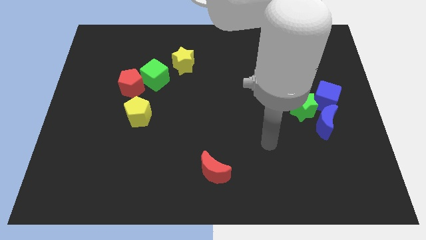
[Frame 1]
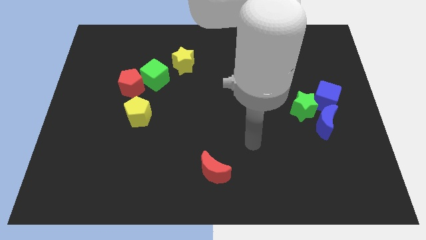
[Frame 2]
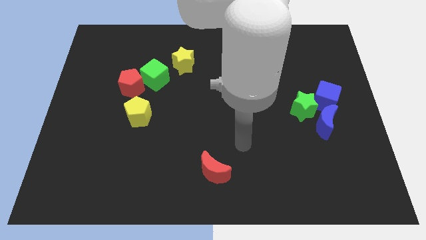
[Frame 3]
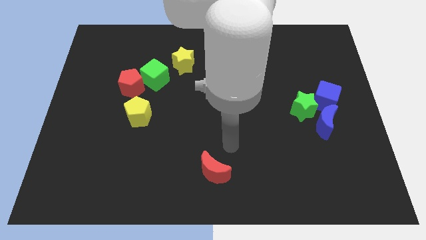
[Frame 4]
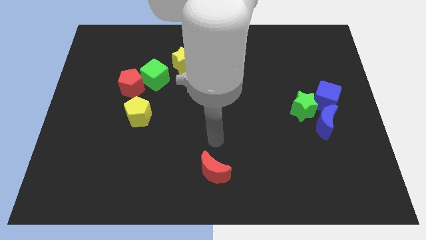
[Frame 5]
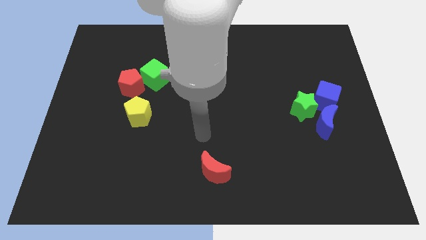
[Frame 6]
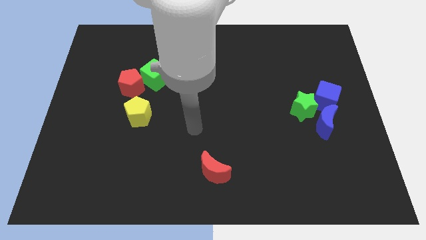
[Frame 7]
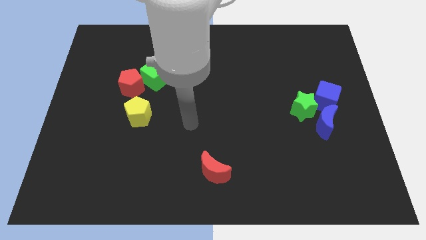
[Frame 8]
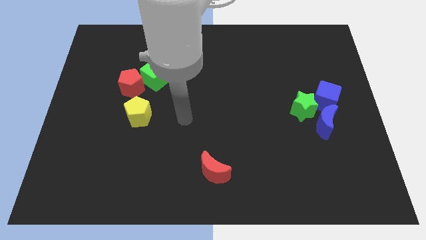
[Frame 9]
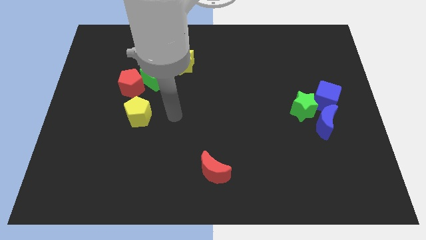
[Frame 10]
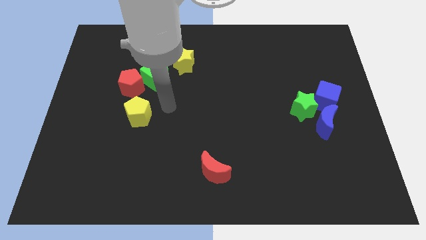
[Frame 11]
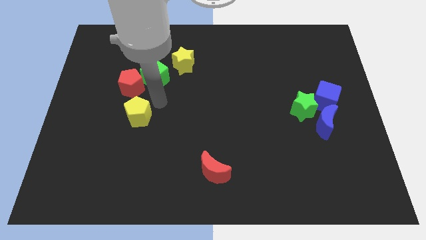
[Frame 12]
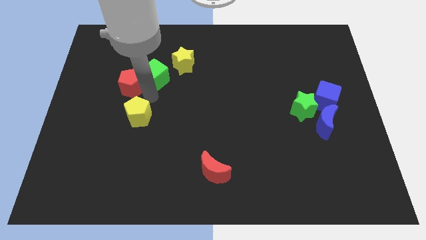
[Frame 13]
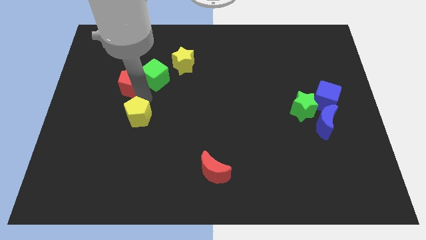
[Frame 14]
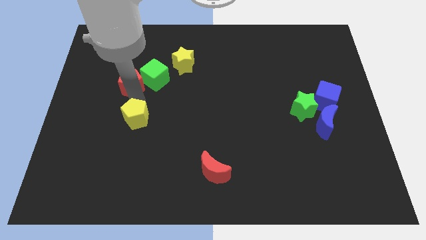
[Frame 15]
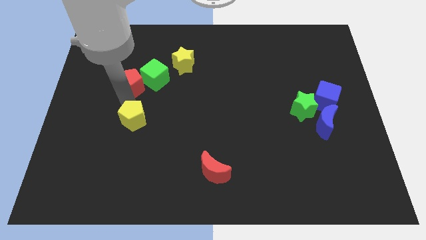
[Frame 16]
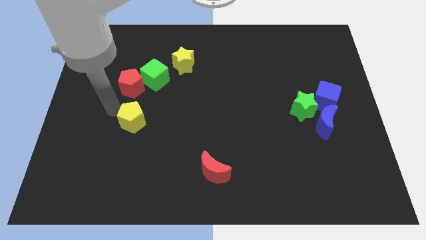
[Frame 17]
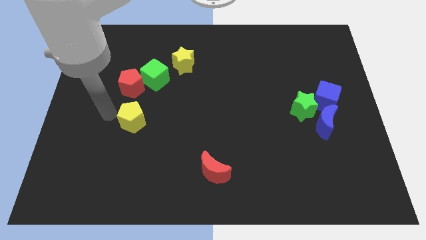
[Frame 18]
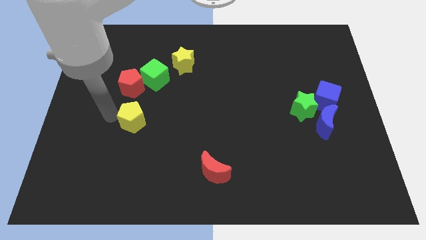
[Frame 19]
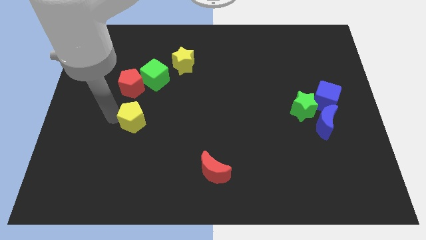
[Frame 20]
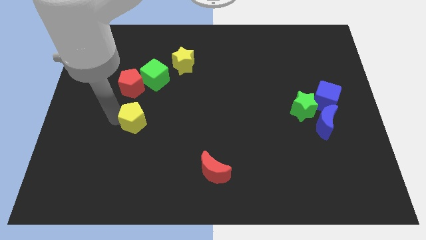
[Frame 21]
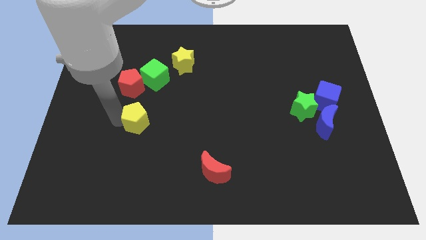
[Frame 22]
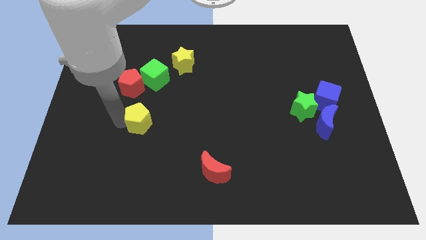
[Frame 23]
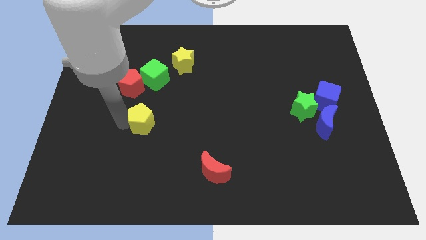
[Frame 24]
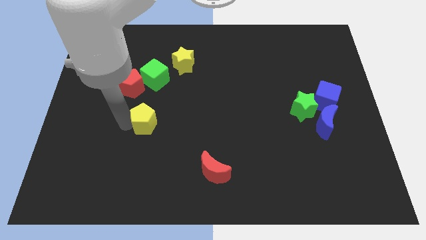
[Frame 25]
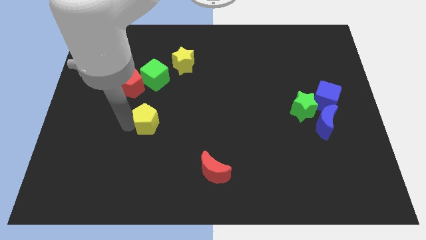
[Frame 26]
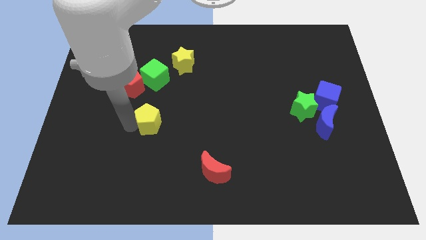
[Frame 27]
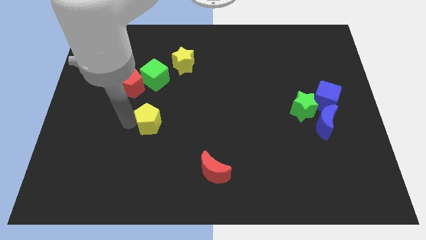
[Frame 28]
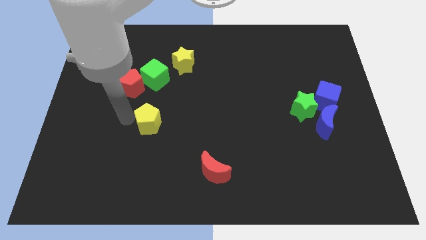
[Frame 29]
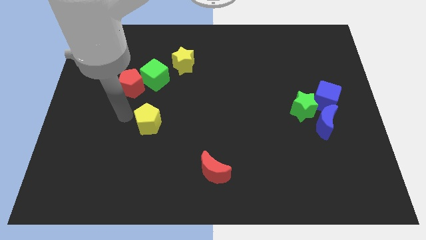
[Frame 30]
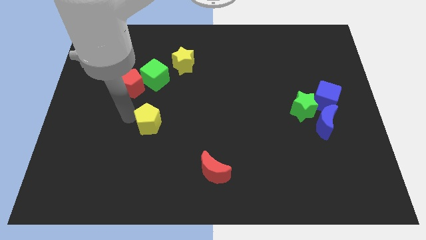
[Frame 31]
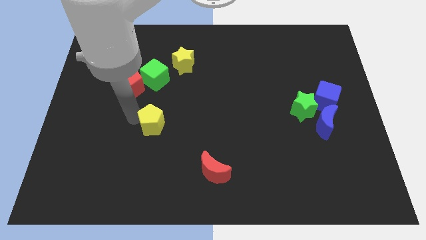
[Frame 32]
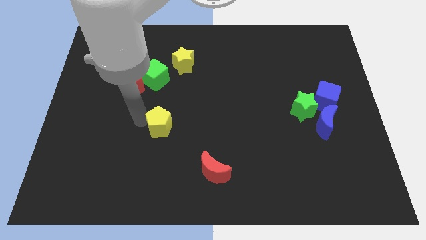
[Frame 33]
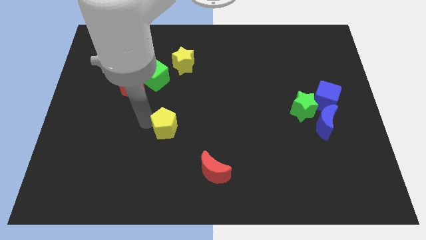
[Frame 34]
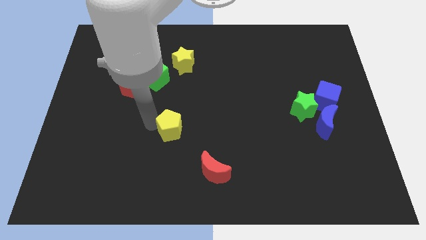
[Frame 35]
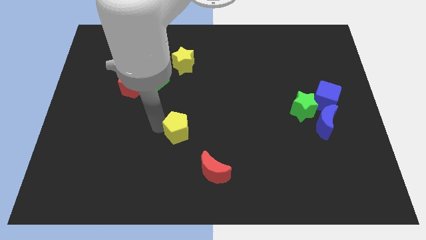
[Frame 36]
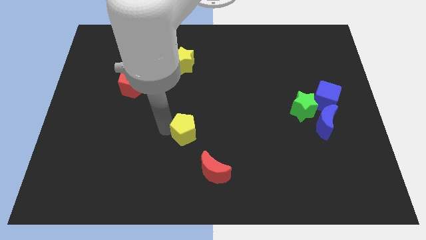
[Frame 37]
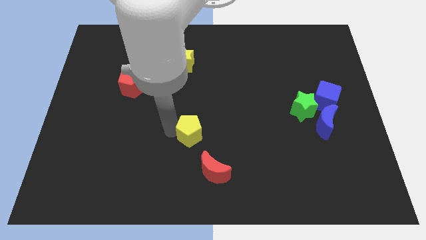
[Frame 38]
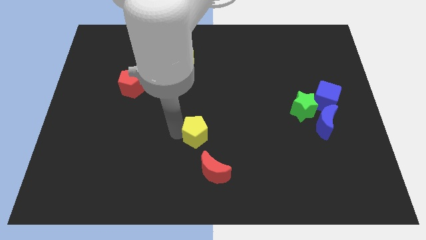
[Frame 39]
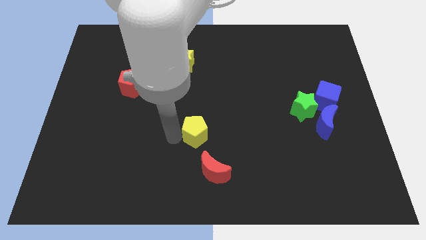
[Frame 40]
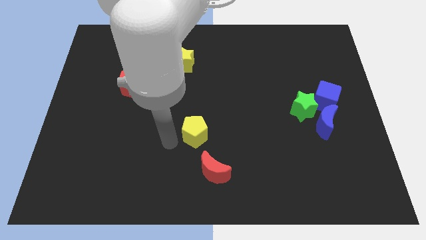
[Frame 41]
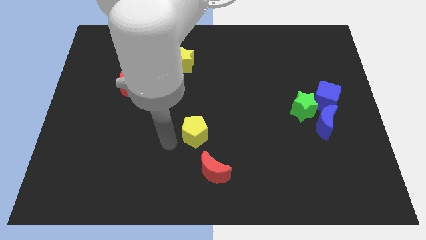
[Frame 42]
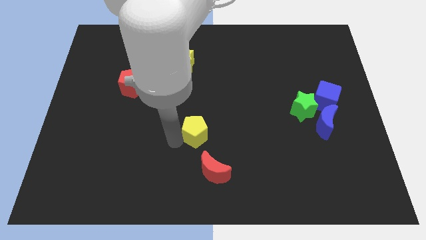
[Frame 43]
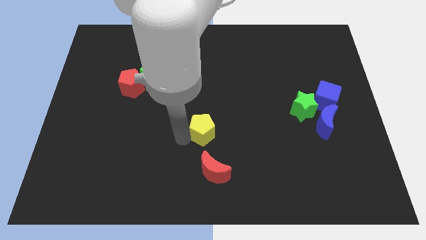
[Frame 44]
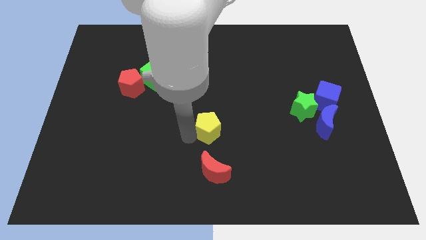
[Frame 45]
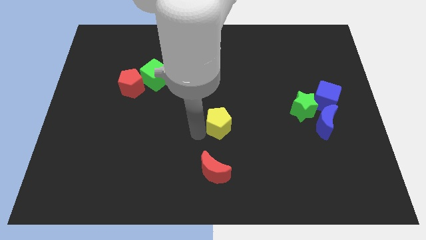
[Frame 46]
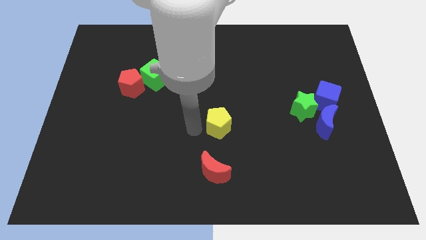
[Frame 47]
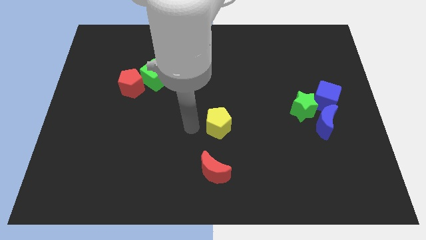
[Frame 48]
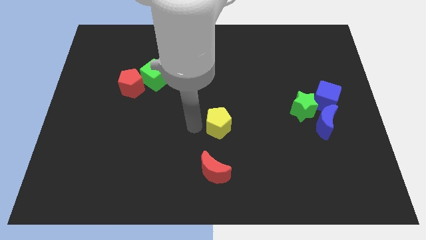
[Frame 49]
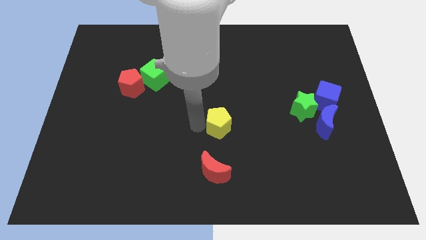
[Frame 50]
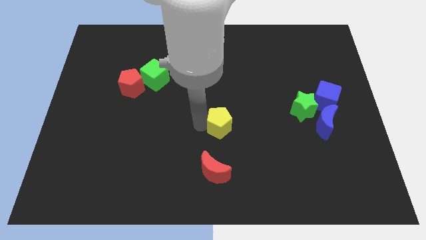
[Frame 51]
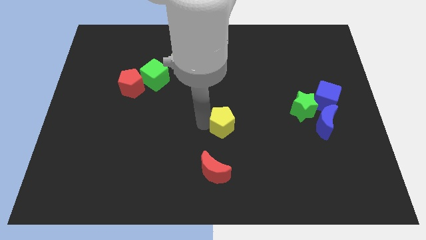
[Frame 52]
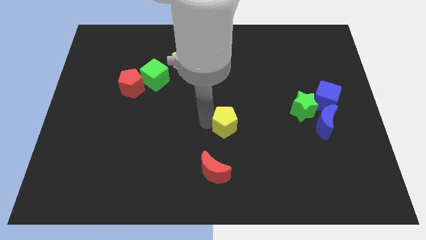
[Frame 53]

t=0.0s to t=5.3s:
move the yellow pentagon to the right

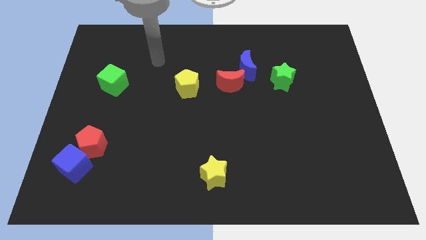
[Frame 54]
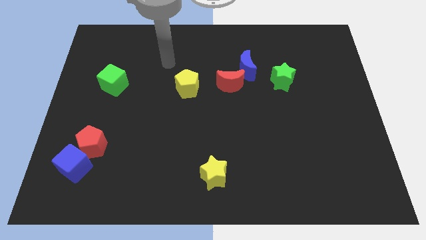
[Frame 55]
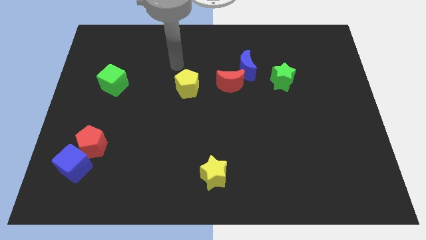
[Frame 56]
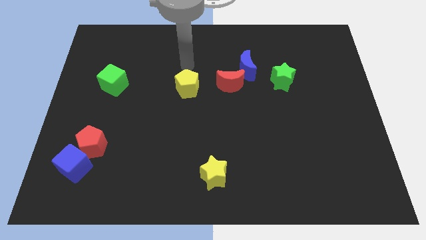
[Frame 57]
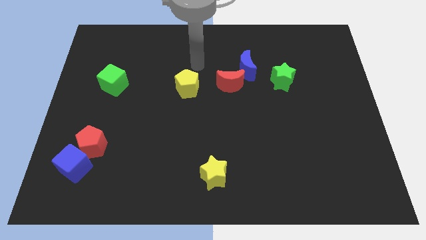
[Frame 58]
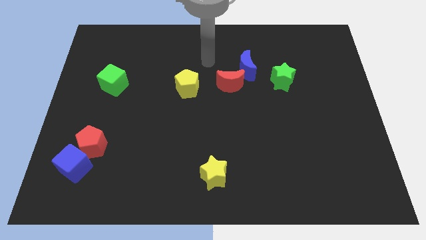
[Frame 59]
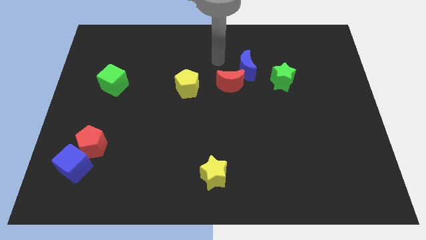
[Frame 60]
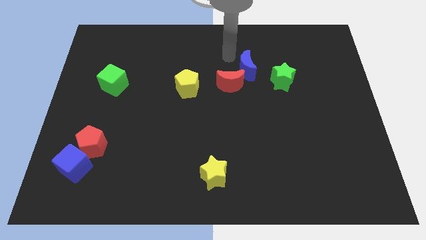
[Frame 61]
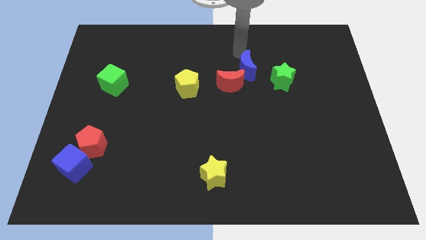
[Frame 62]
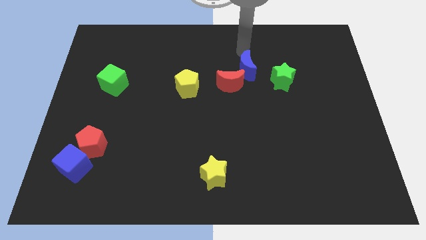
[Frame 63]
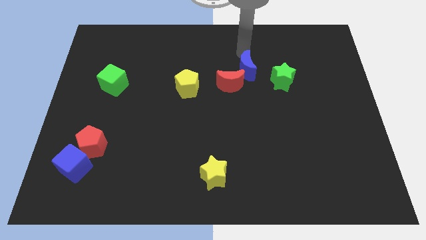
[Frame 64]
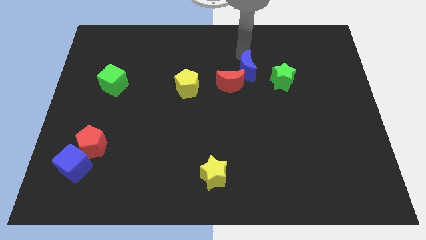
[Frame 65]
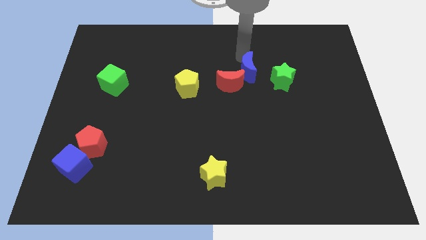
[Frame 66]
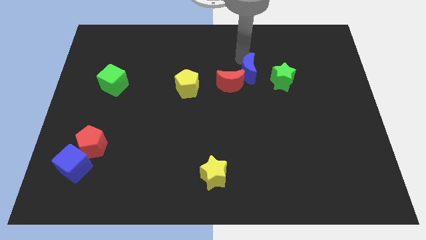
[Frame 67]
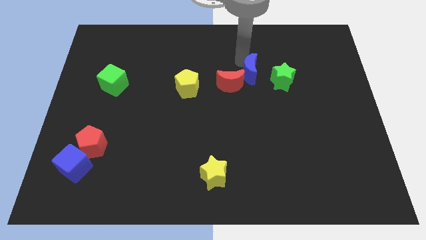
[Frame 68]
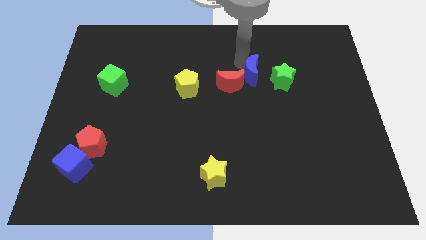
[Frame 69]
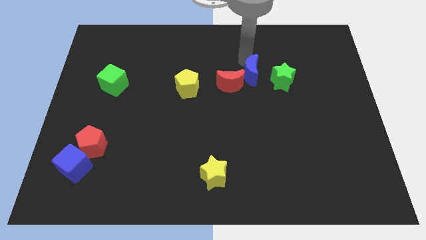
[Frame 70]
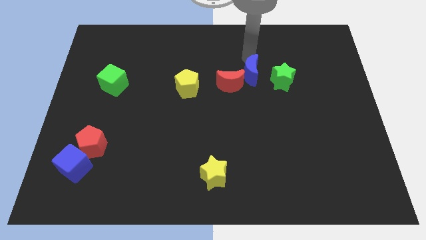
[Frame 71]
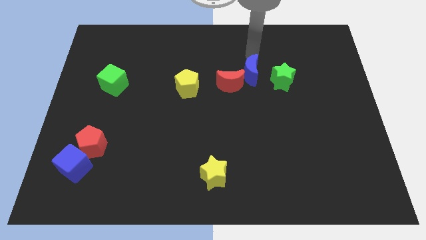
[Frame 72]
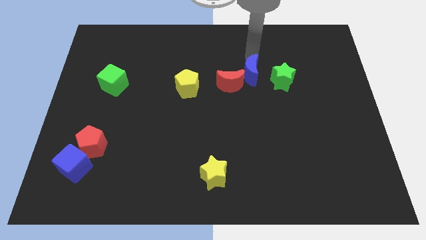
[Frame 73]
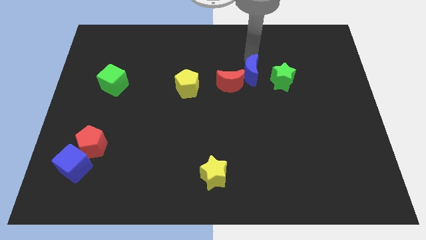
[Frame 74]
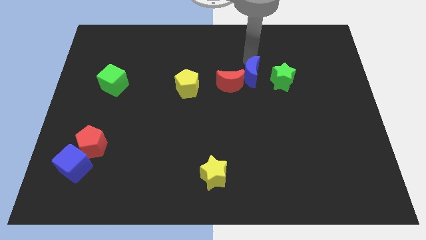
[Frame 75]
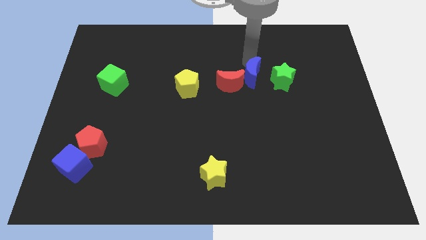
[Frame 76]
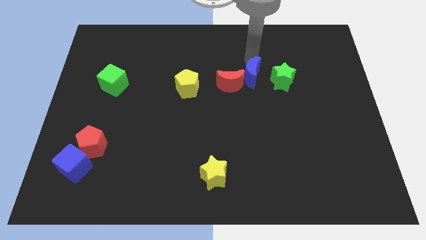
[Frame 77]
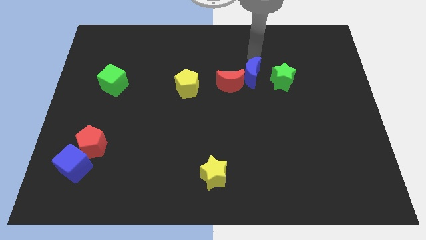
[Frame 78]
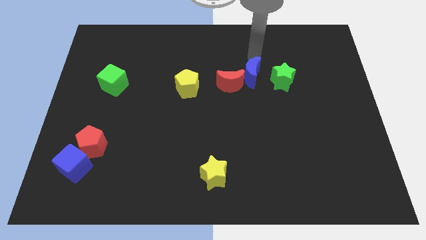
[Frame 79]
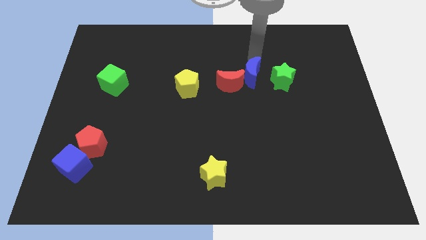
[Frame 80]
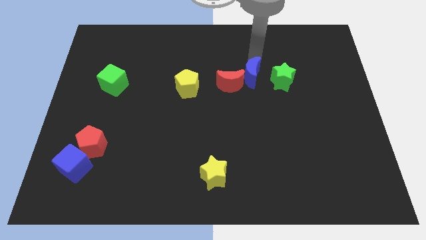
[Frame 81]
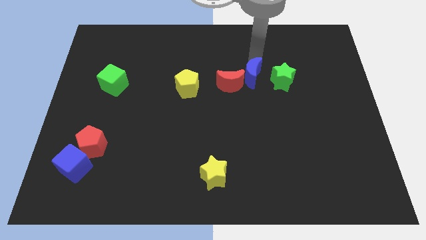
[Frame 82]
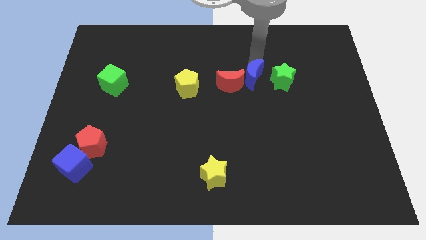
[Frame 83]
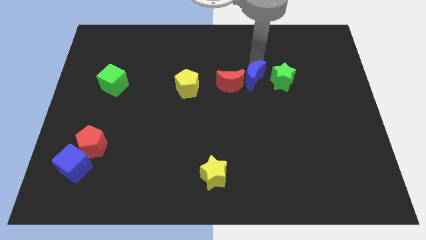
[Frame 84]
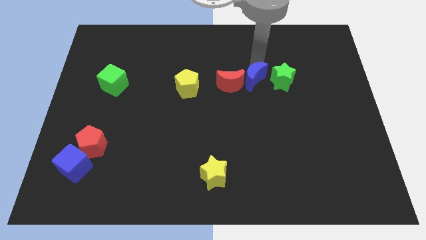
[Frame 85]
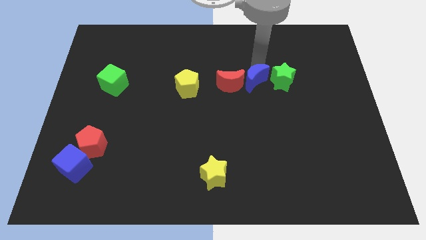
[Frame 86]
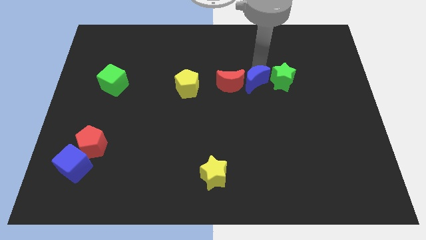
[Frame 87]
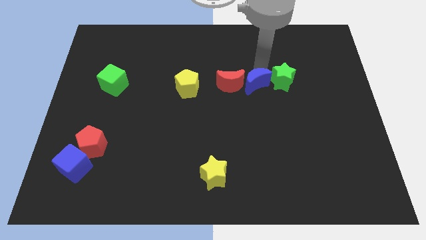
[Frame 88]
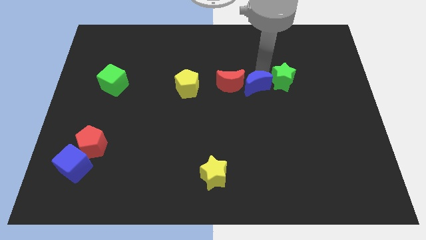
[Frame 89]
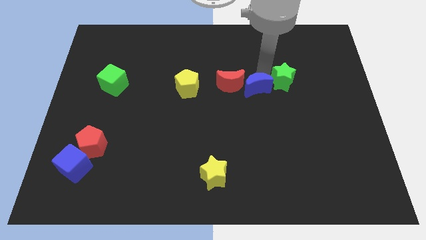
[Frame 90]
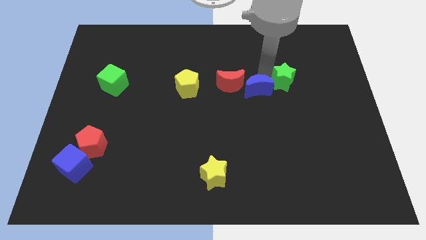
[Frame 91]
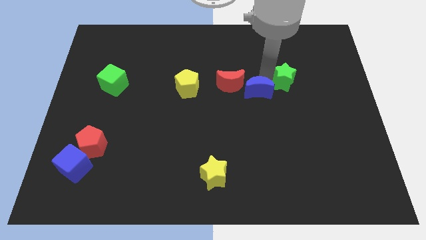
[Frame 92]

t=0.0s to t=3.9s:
push the blue moon somewhat down
